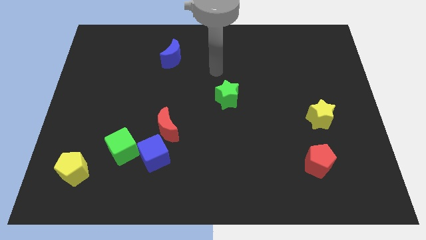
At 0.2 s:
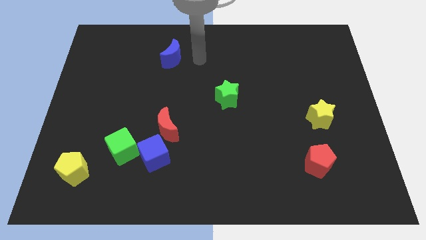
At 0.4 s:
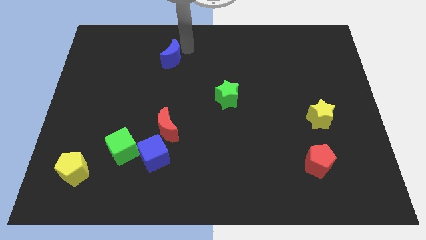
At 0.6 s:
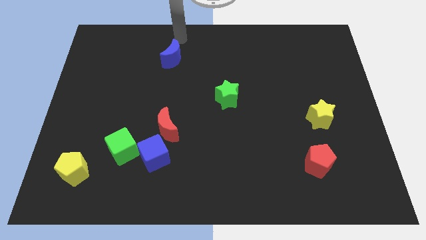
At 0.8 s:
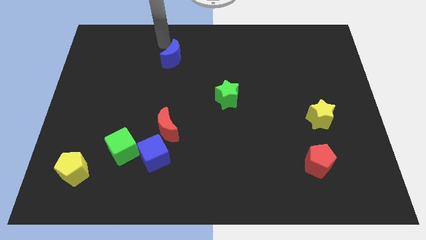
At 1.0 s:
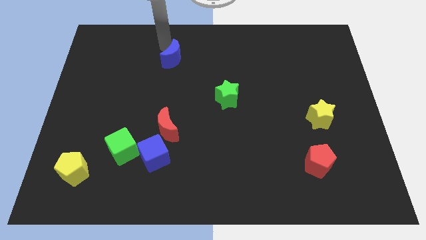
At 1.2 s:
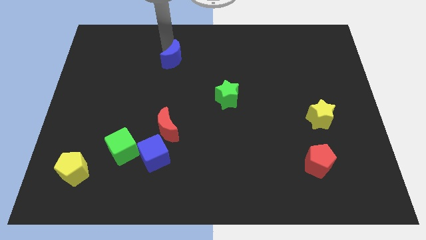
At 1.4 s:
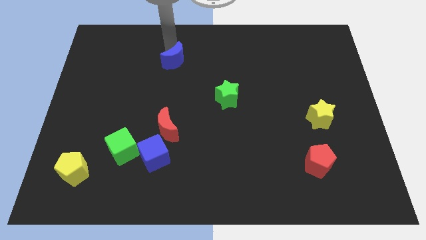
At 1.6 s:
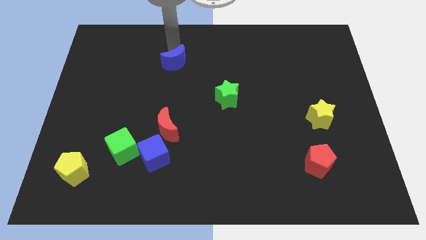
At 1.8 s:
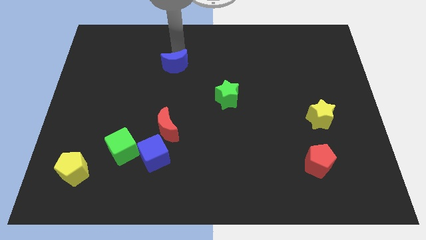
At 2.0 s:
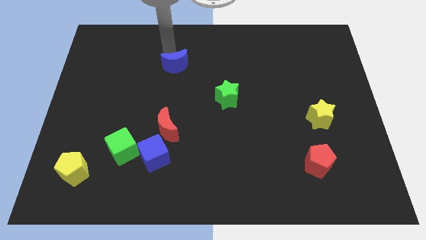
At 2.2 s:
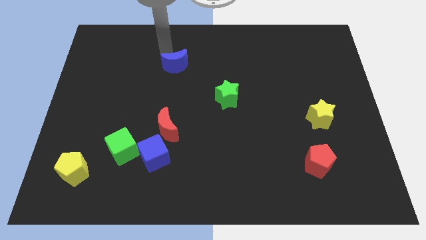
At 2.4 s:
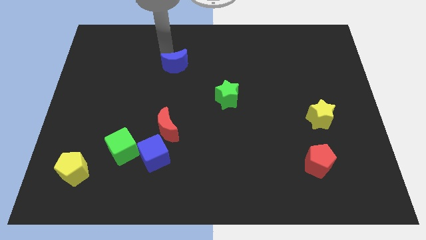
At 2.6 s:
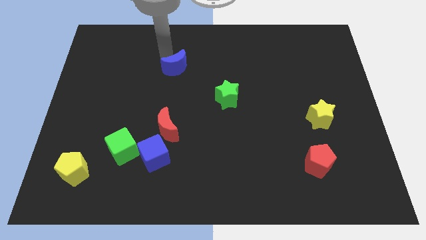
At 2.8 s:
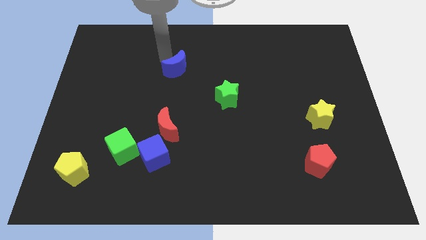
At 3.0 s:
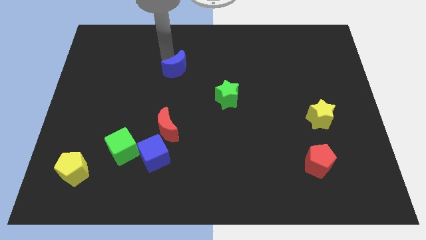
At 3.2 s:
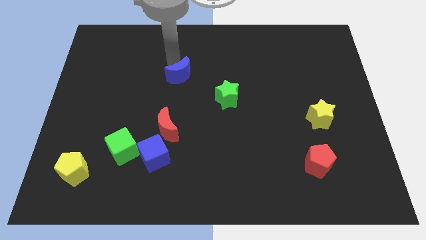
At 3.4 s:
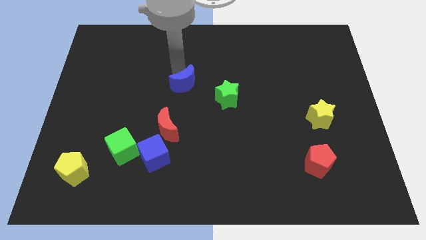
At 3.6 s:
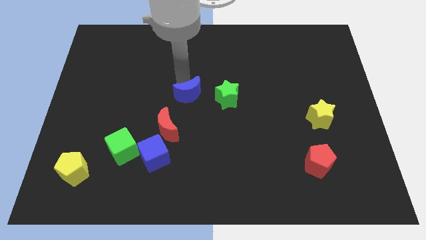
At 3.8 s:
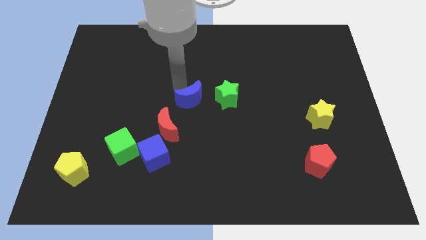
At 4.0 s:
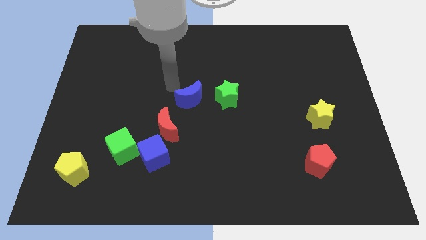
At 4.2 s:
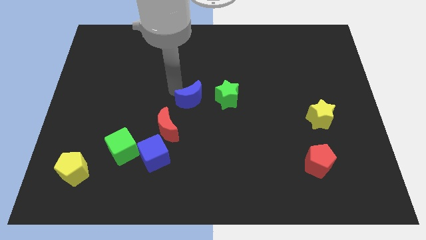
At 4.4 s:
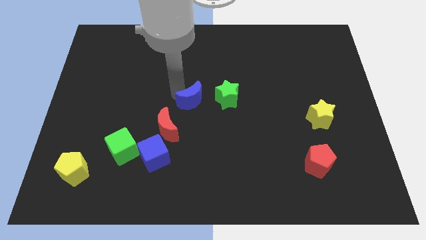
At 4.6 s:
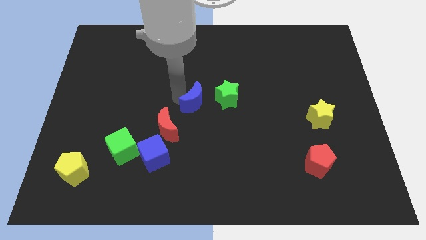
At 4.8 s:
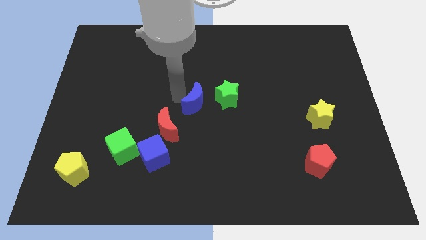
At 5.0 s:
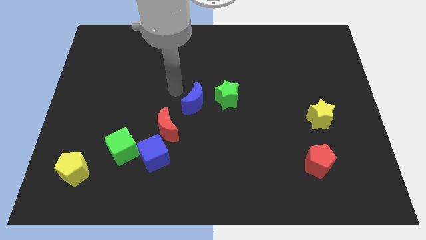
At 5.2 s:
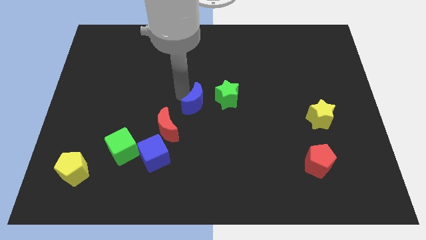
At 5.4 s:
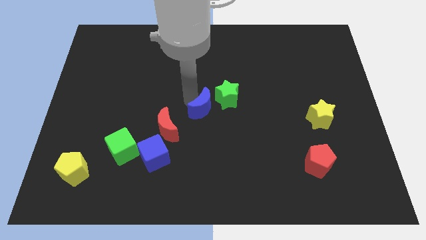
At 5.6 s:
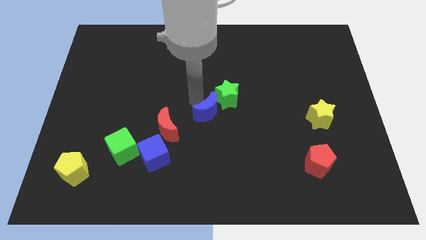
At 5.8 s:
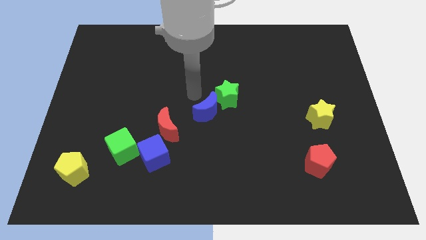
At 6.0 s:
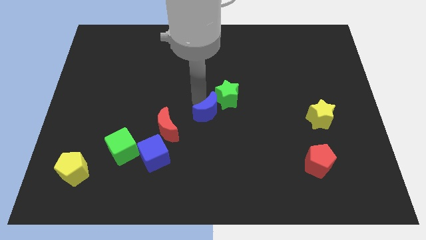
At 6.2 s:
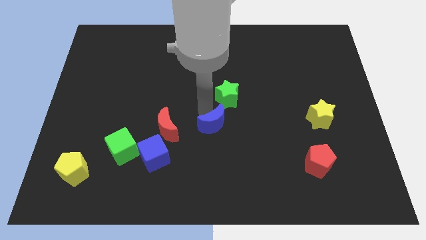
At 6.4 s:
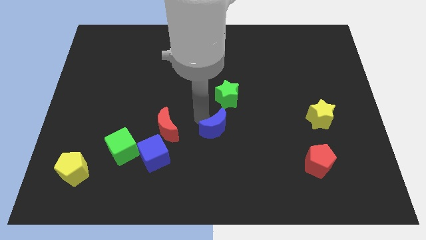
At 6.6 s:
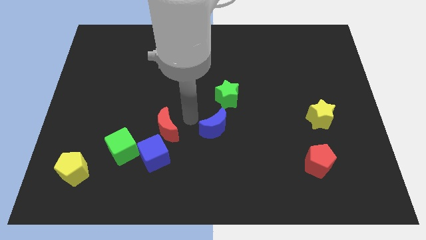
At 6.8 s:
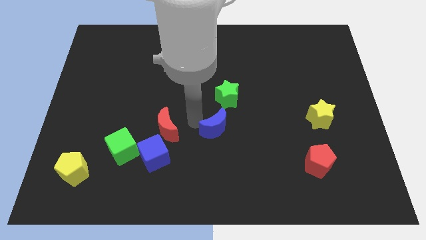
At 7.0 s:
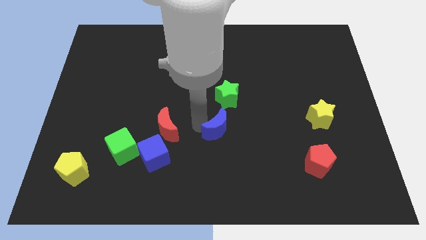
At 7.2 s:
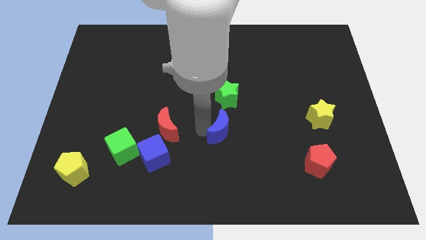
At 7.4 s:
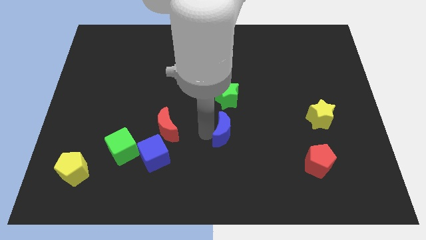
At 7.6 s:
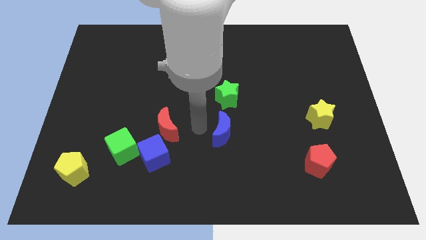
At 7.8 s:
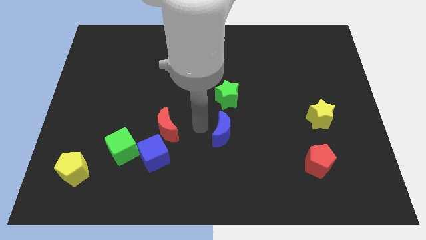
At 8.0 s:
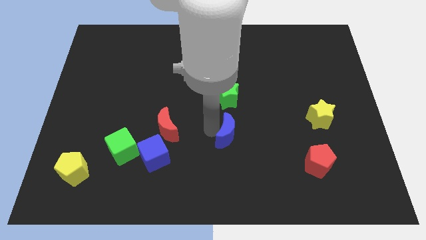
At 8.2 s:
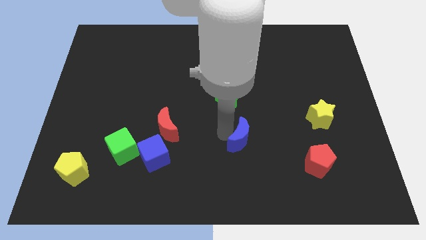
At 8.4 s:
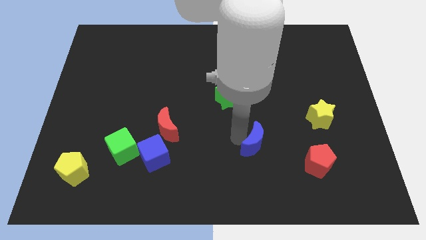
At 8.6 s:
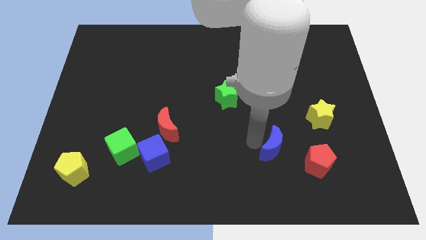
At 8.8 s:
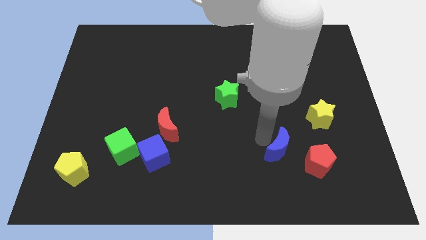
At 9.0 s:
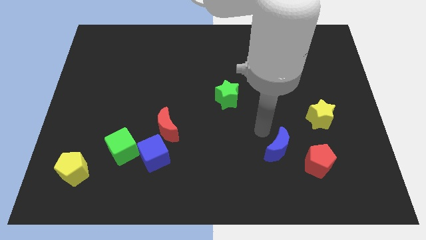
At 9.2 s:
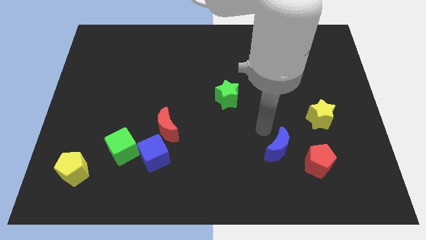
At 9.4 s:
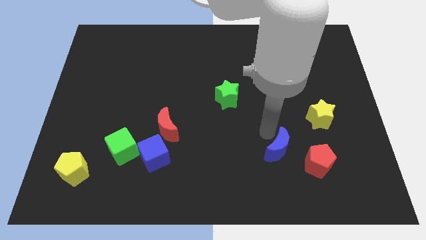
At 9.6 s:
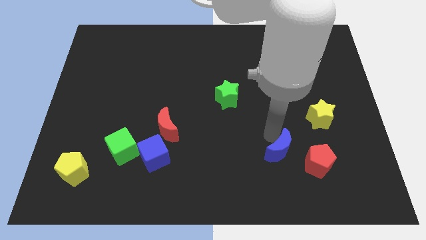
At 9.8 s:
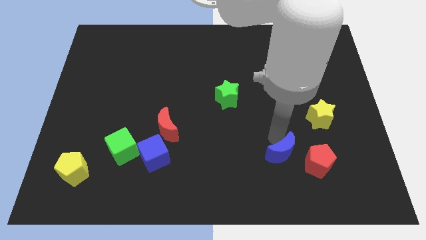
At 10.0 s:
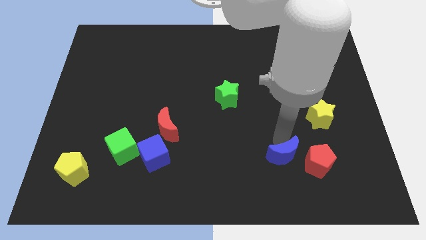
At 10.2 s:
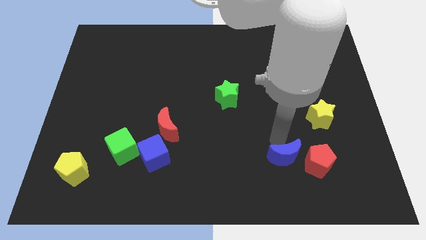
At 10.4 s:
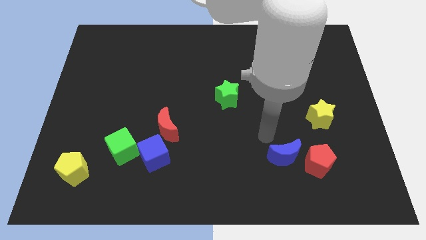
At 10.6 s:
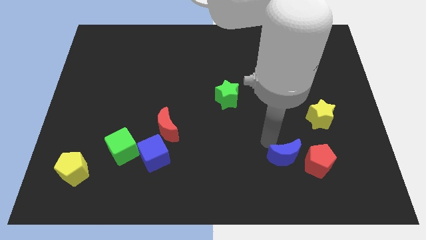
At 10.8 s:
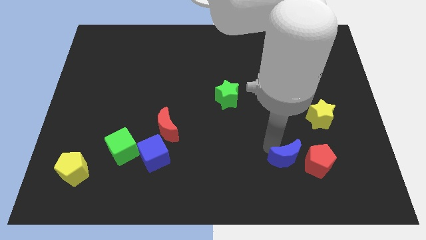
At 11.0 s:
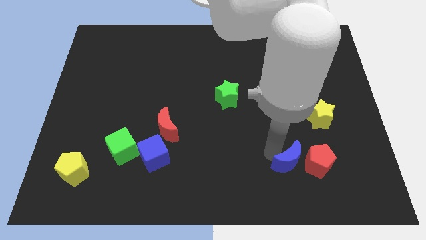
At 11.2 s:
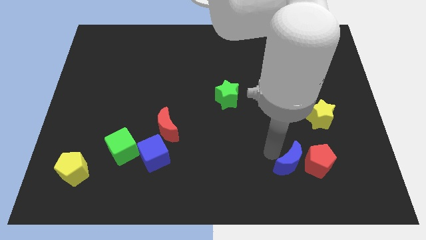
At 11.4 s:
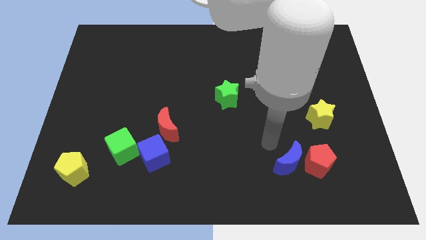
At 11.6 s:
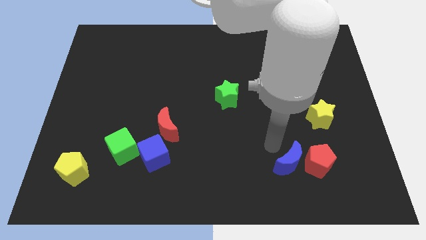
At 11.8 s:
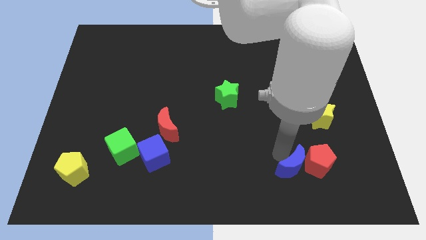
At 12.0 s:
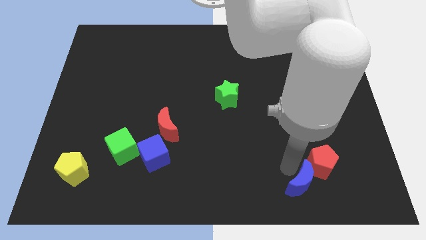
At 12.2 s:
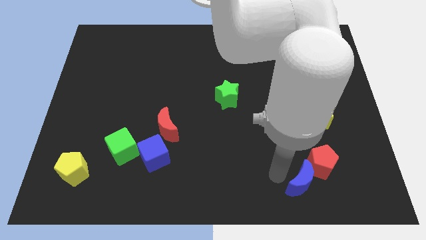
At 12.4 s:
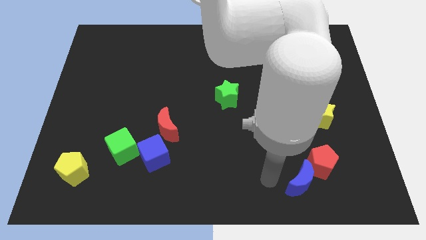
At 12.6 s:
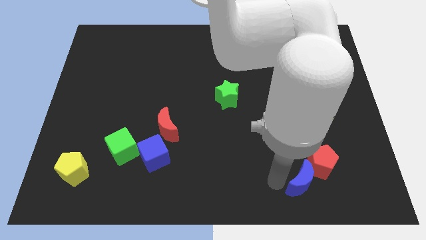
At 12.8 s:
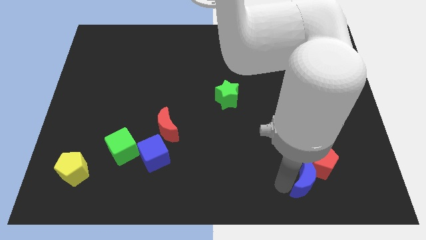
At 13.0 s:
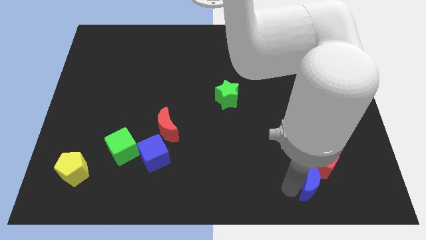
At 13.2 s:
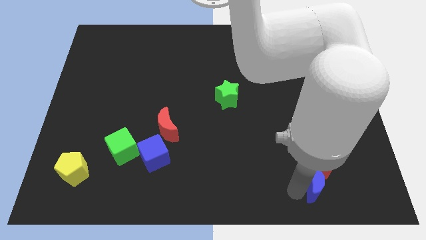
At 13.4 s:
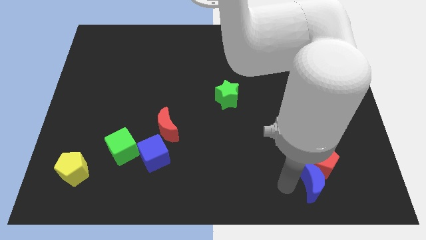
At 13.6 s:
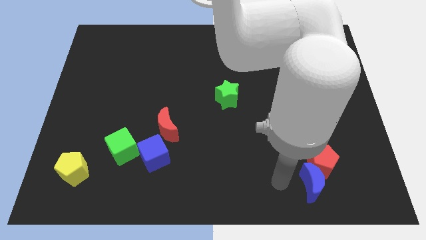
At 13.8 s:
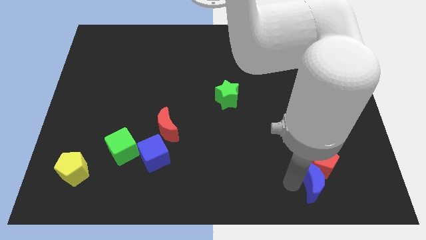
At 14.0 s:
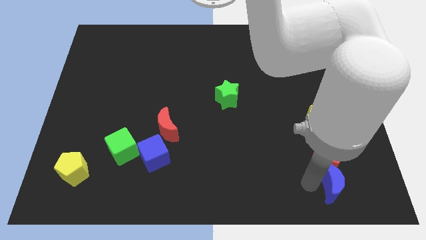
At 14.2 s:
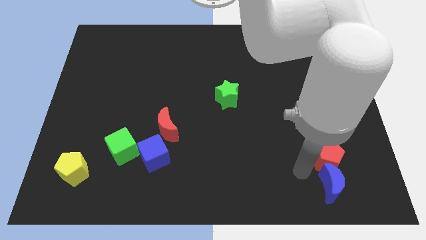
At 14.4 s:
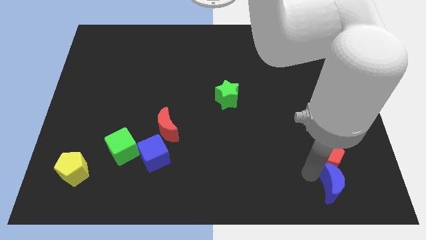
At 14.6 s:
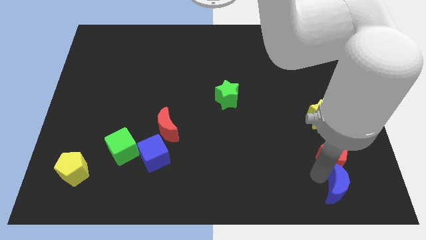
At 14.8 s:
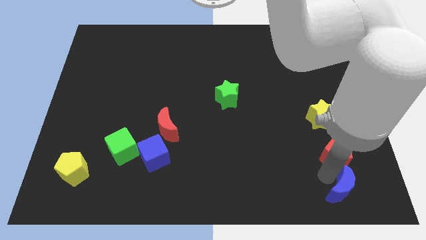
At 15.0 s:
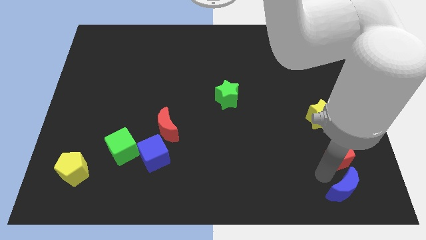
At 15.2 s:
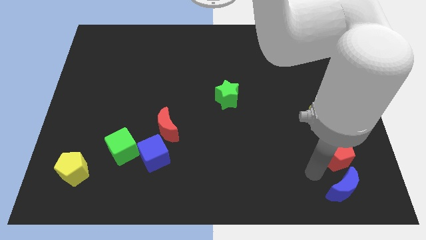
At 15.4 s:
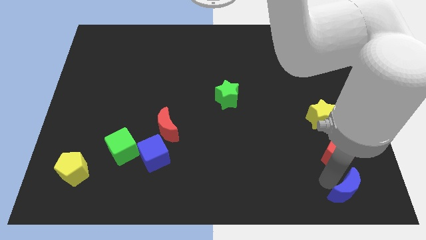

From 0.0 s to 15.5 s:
push the blue moon to the bottom right of the board
